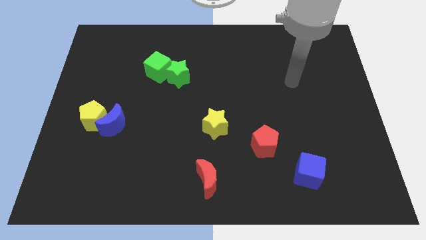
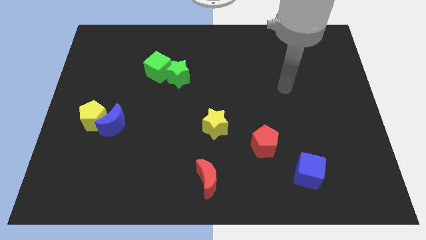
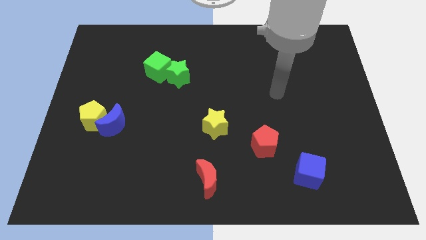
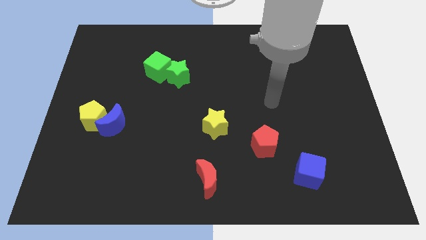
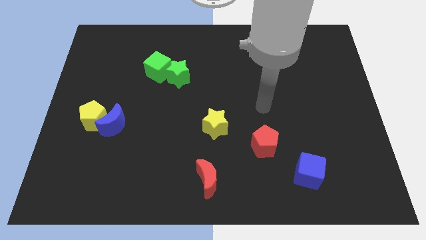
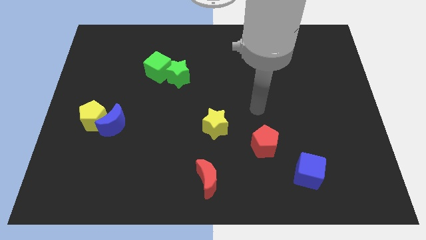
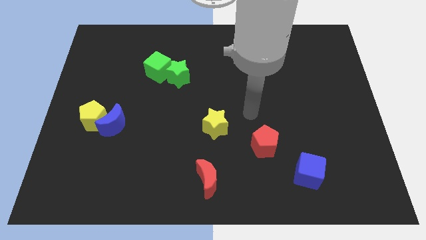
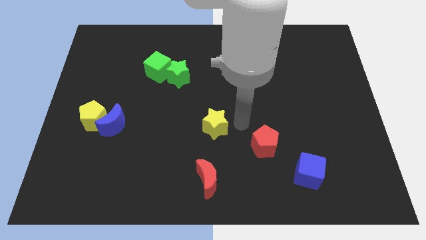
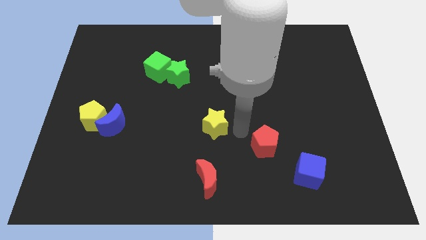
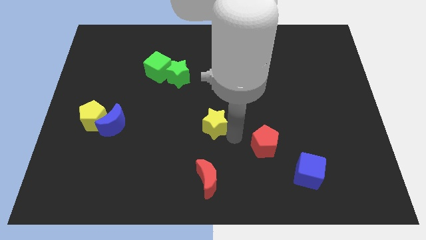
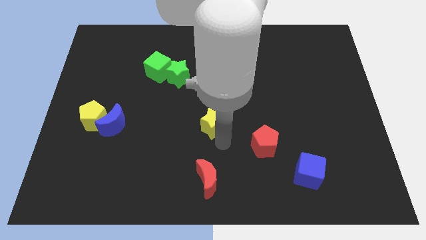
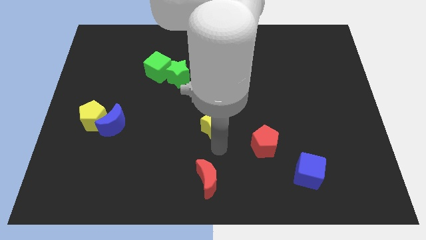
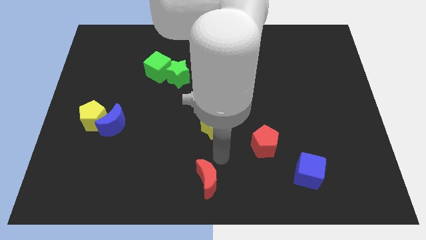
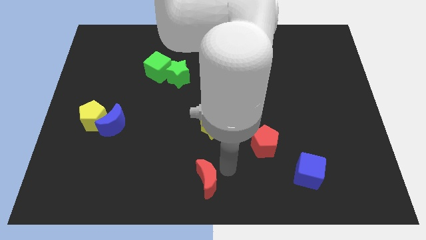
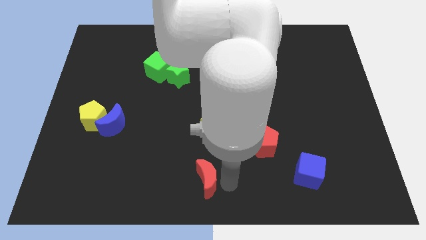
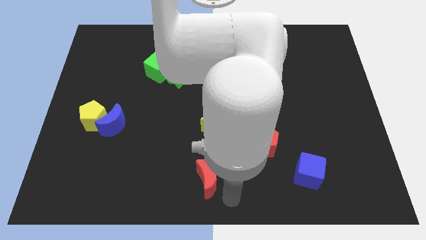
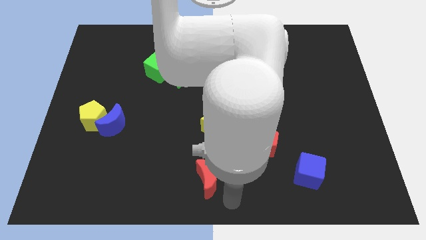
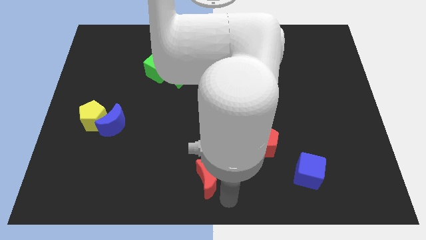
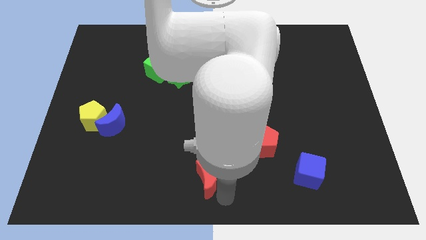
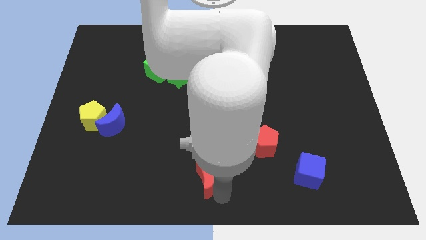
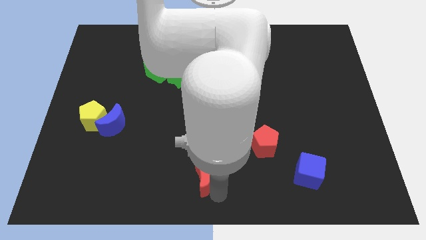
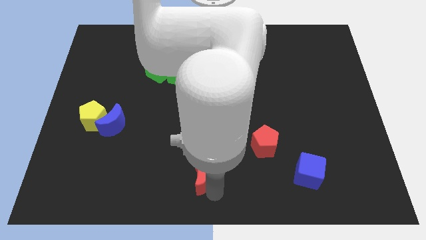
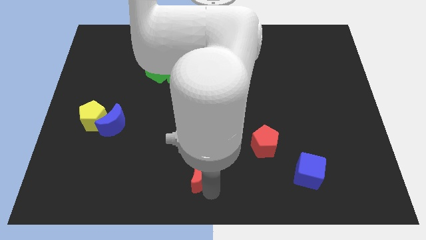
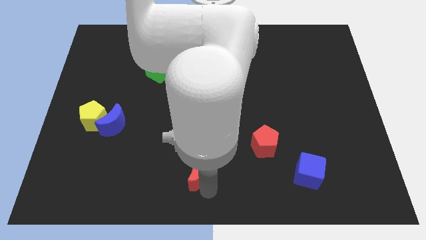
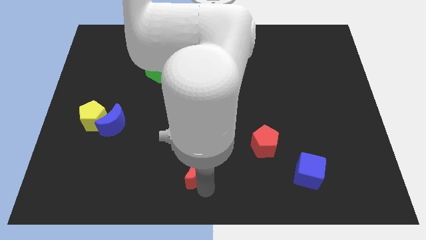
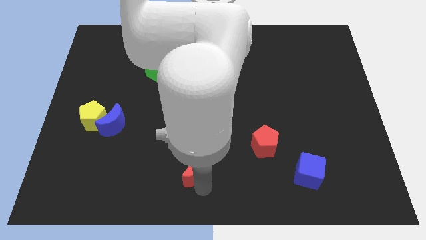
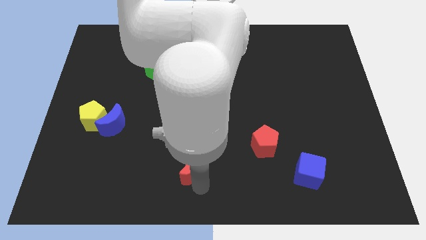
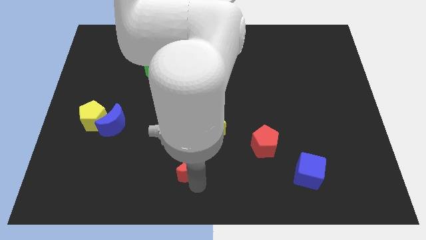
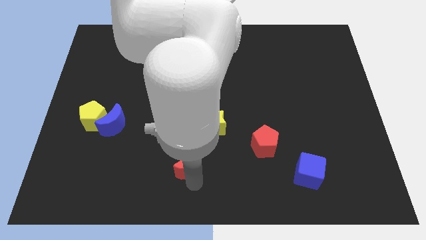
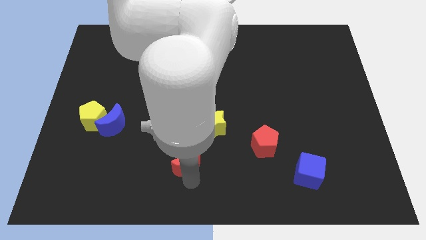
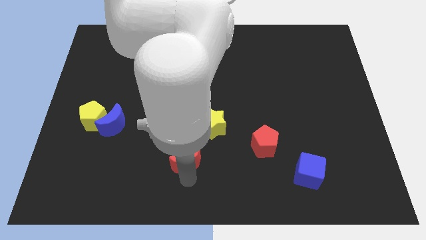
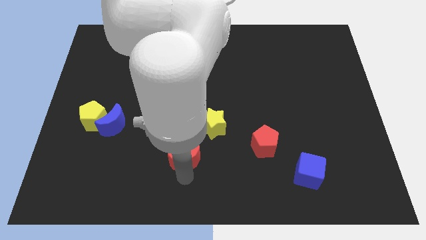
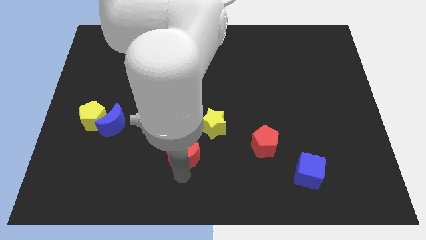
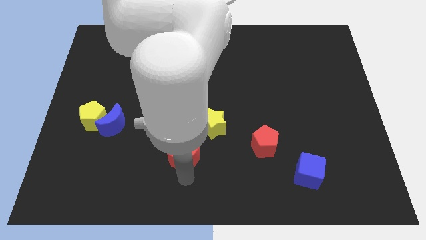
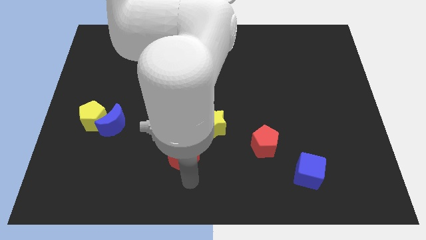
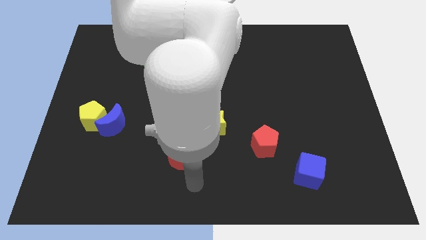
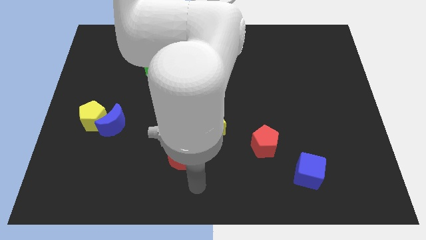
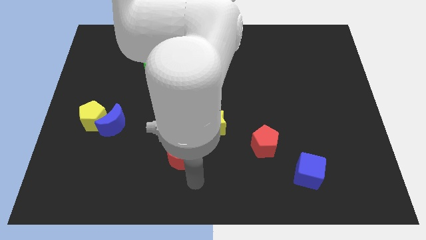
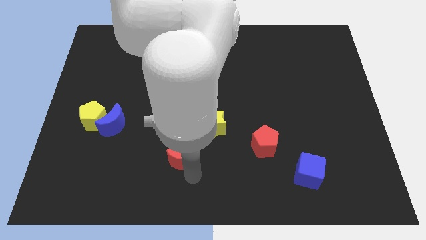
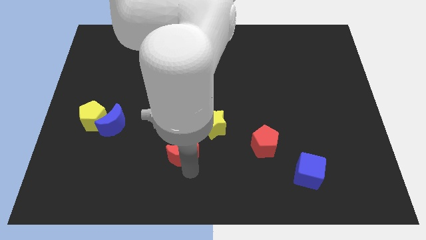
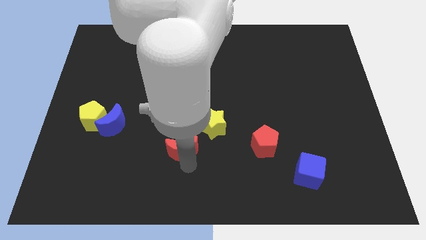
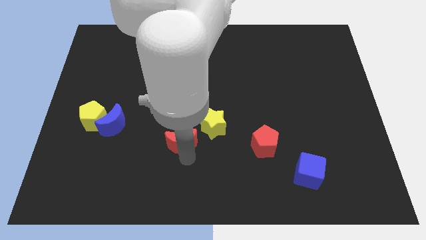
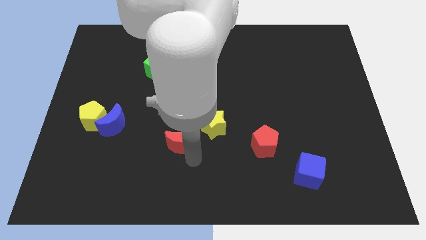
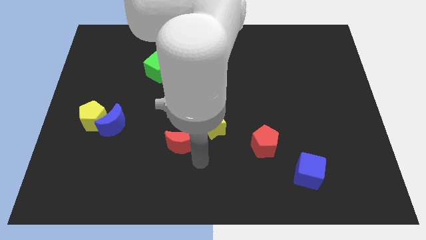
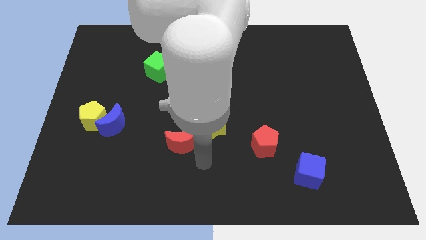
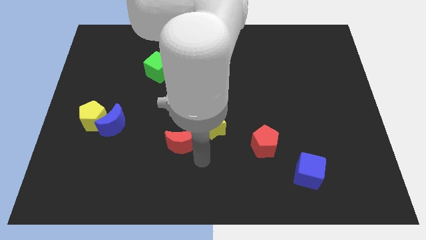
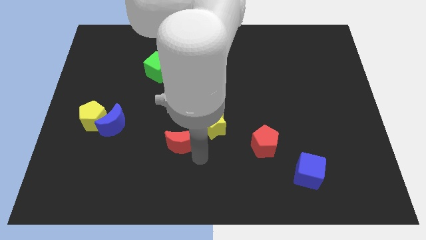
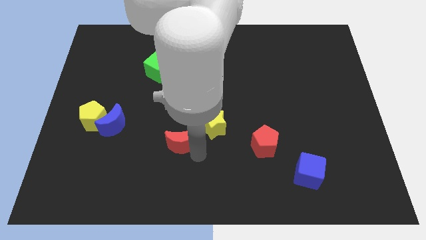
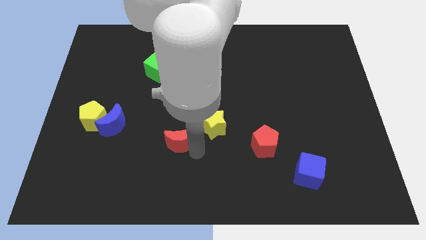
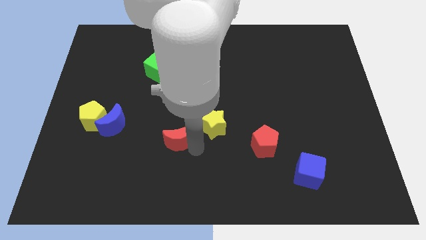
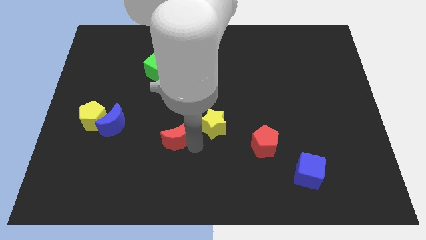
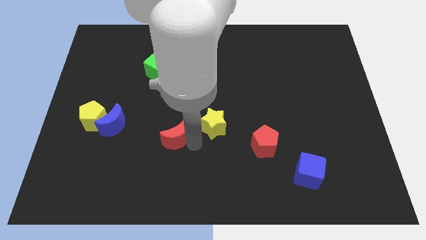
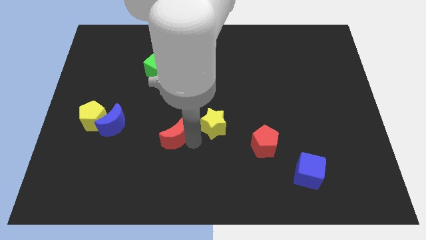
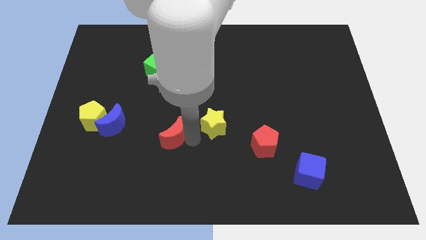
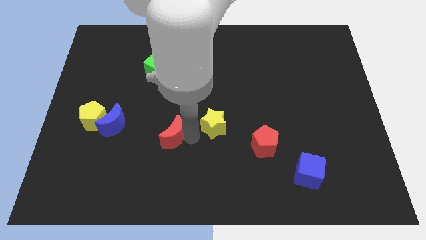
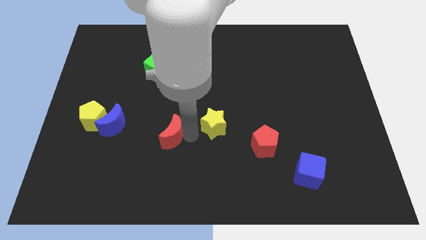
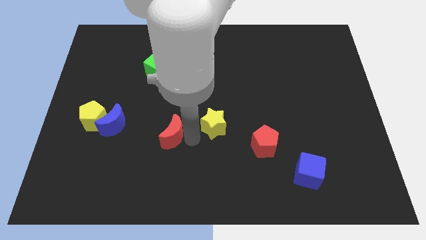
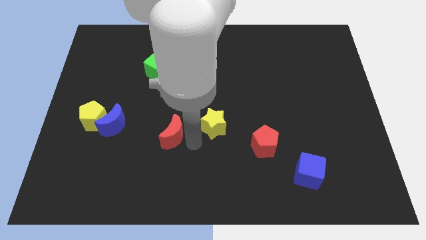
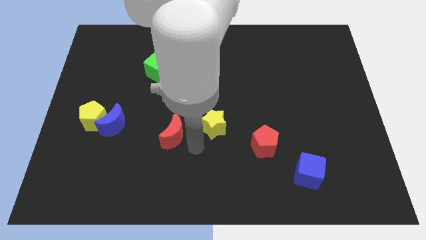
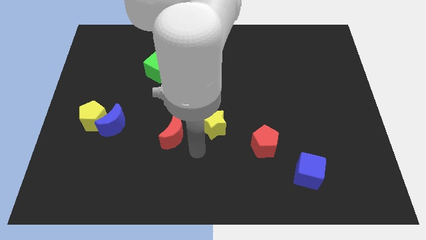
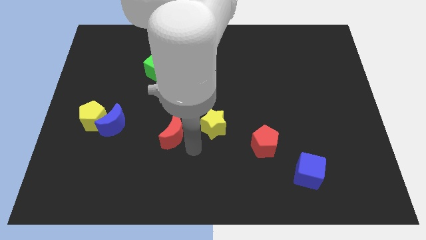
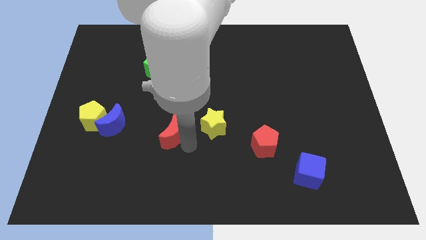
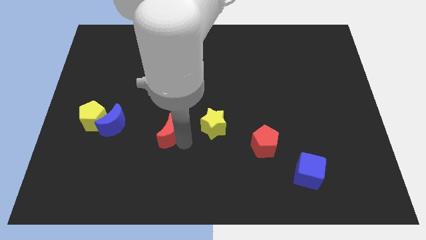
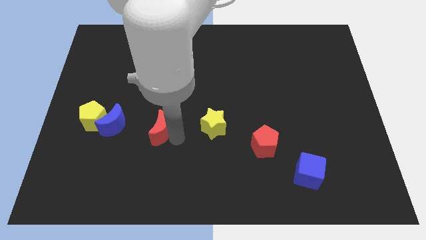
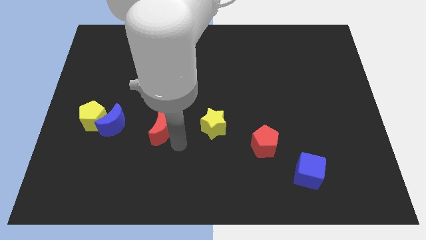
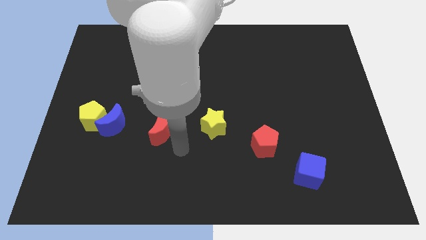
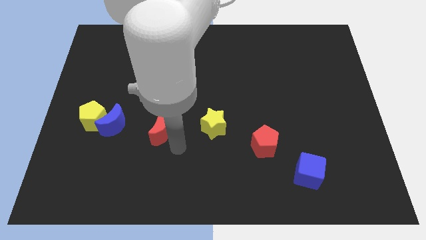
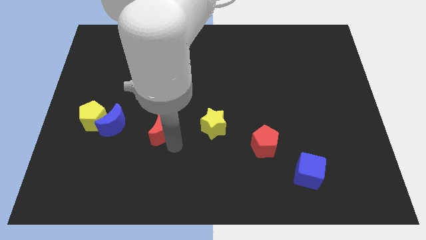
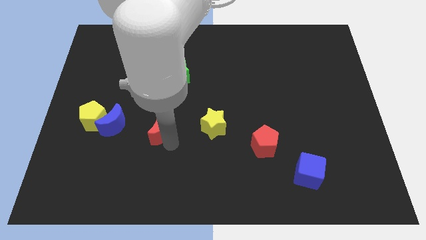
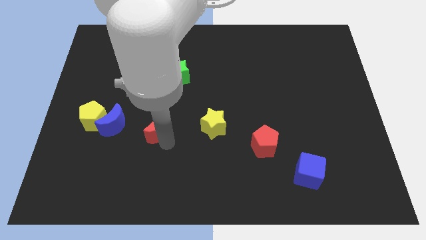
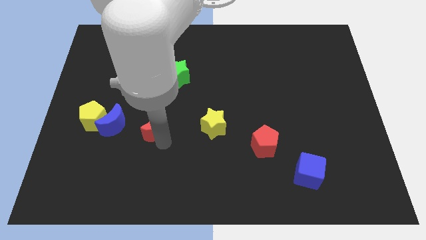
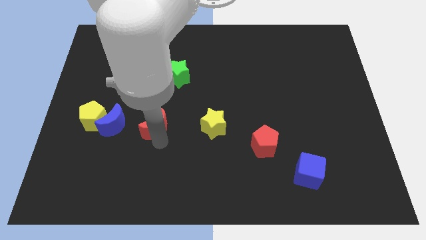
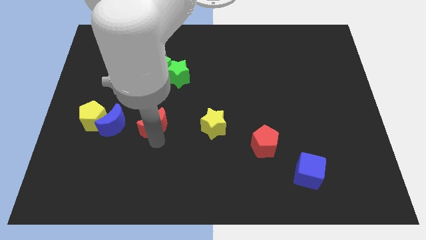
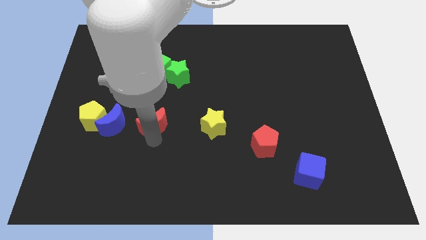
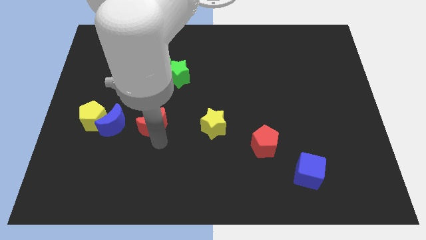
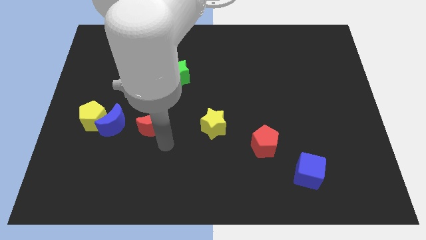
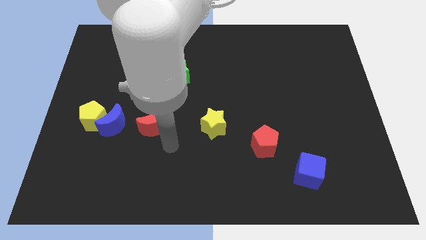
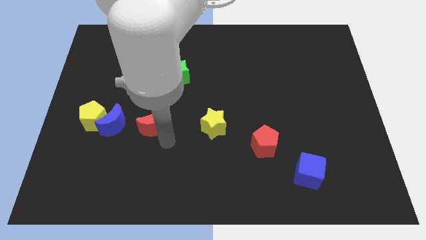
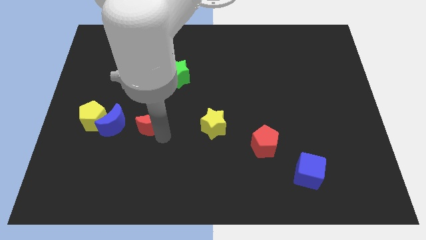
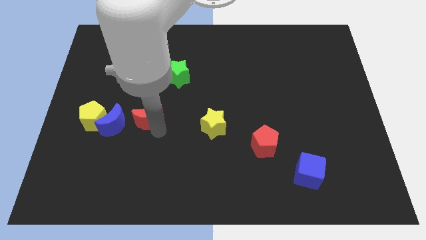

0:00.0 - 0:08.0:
push the red moon diagonally up and left

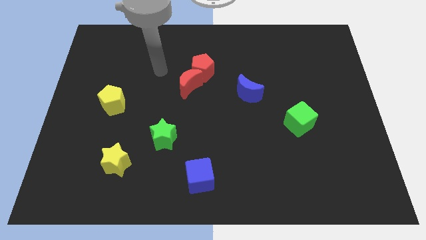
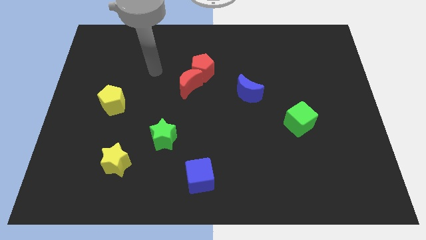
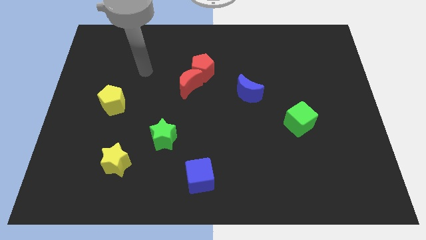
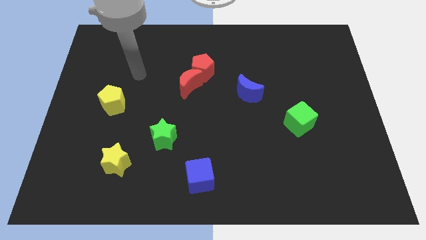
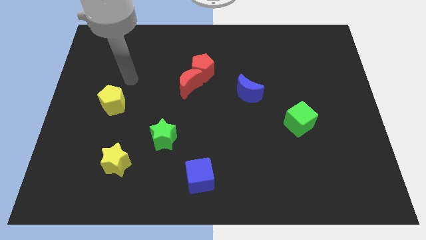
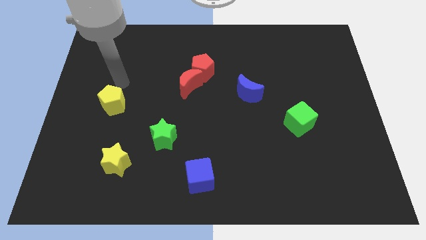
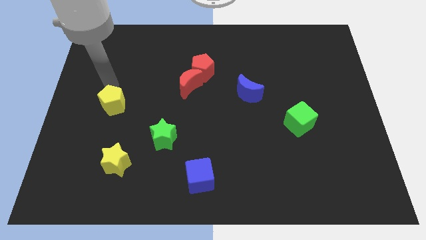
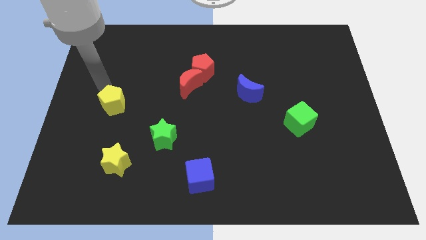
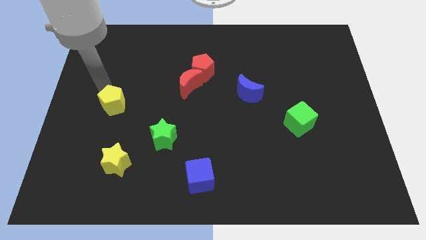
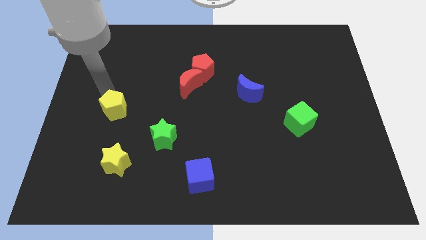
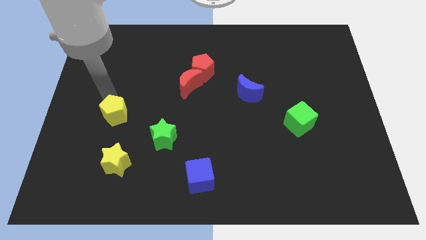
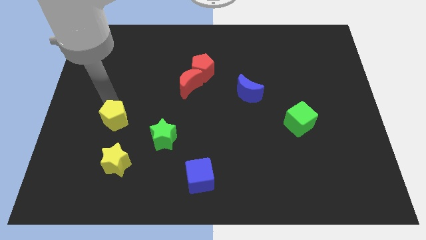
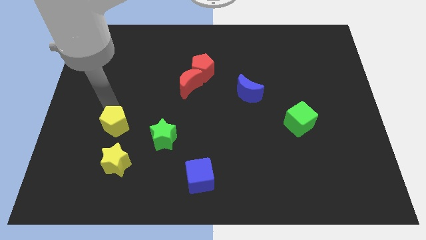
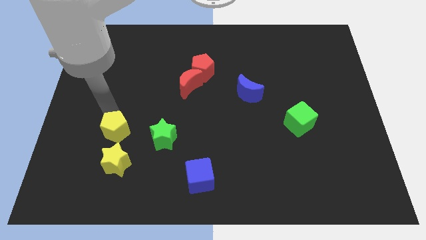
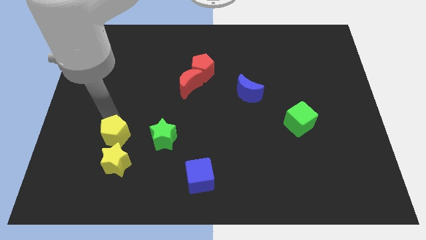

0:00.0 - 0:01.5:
slide the yellow pentagon a little down and then to the right
